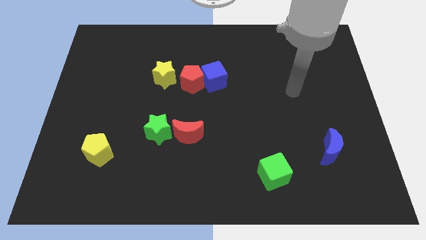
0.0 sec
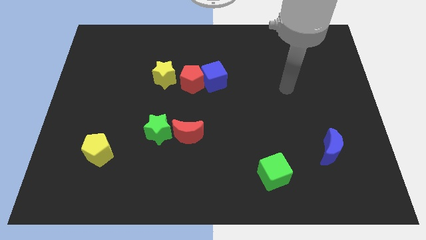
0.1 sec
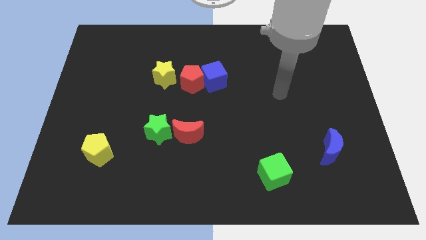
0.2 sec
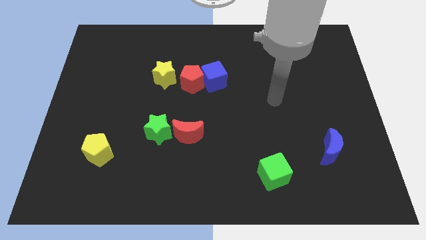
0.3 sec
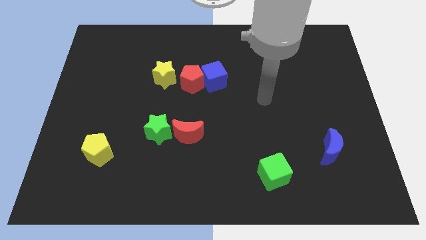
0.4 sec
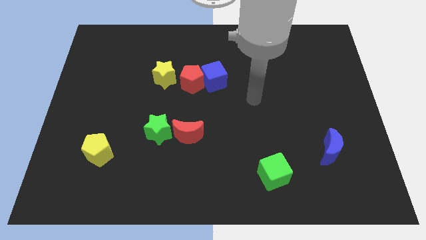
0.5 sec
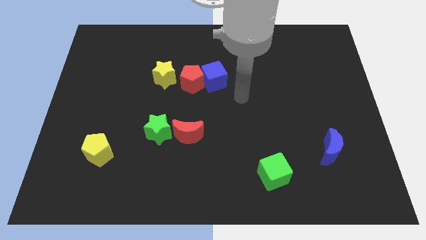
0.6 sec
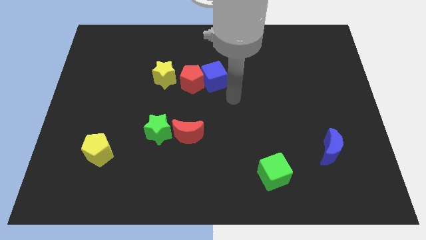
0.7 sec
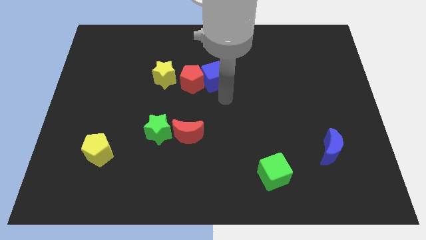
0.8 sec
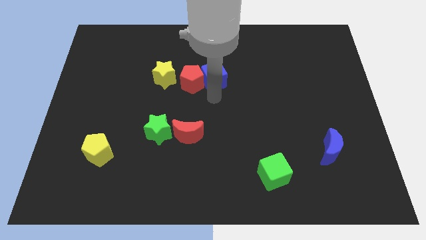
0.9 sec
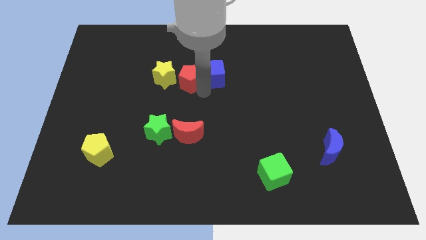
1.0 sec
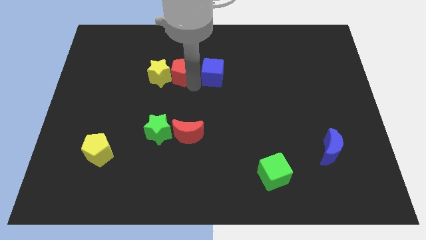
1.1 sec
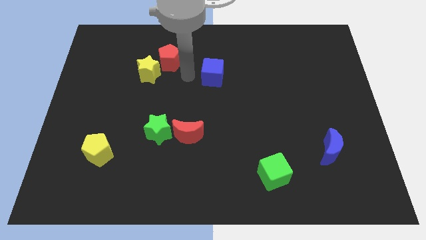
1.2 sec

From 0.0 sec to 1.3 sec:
pull the blue cube apart from the red pentagon

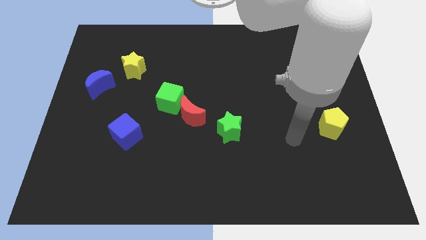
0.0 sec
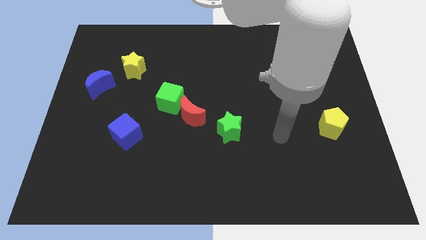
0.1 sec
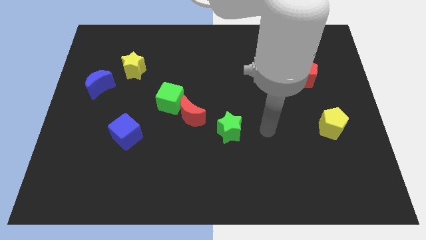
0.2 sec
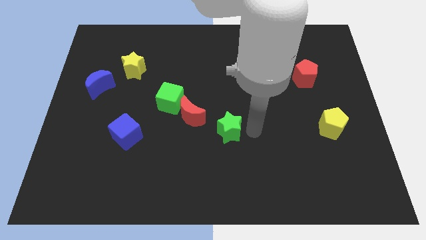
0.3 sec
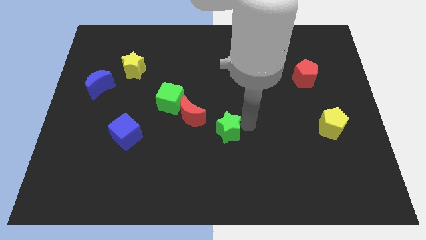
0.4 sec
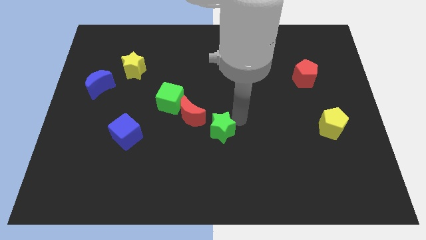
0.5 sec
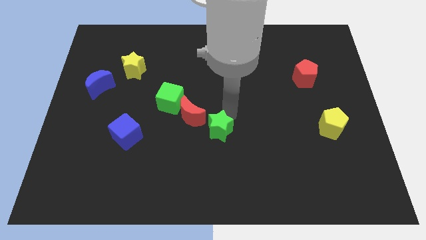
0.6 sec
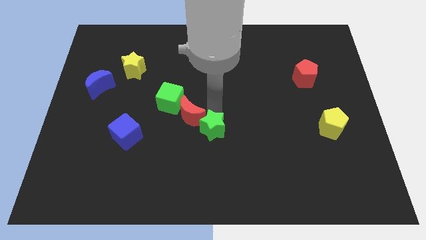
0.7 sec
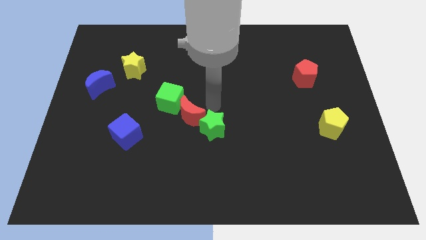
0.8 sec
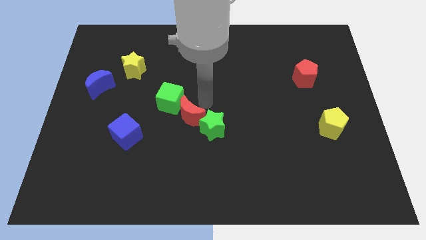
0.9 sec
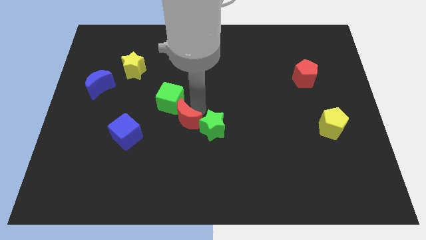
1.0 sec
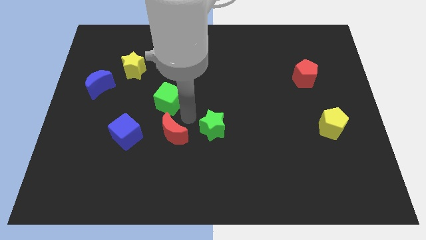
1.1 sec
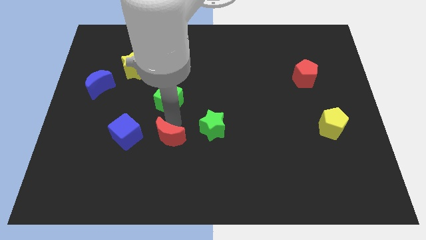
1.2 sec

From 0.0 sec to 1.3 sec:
move the green cube away from the red moon

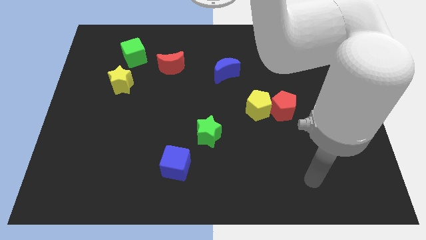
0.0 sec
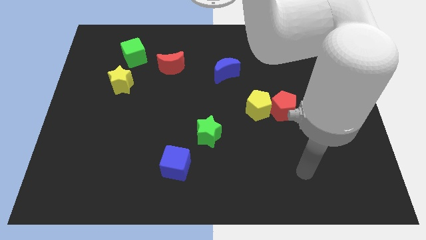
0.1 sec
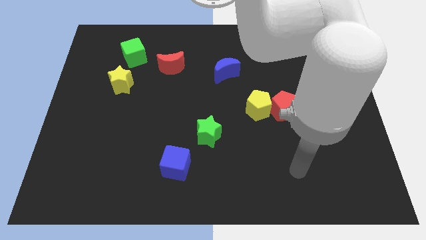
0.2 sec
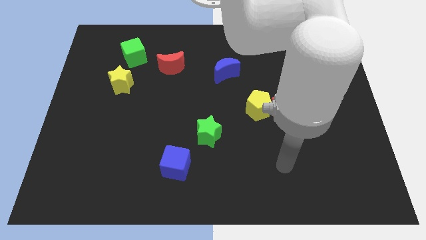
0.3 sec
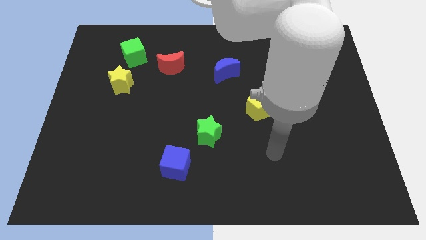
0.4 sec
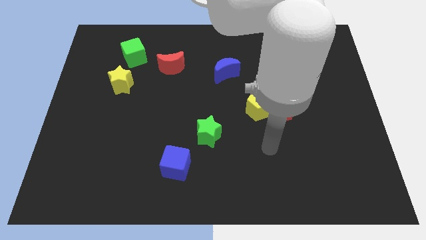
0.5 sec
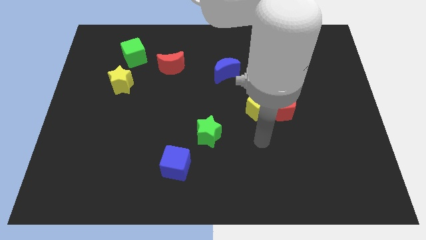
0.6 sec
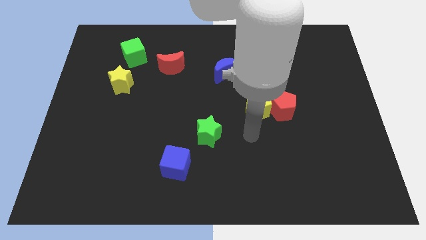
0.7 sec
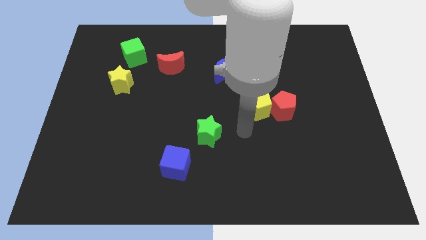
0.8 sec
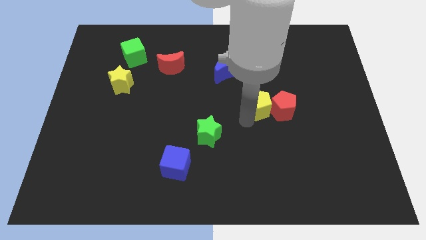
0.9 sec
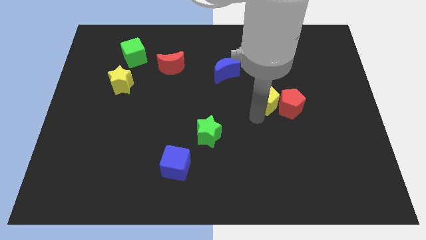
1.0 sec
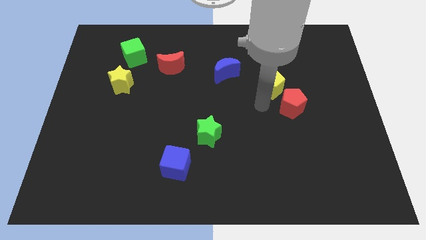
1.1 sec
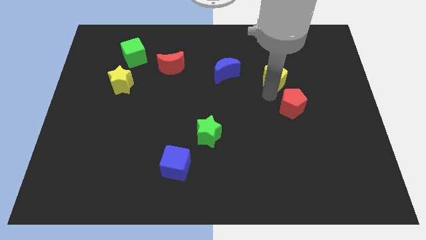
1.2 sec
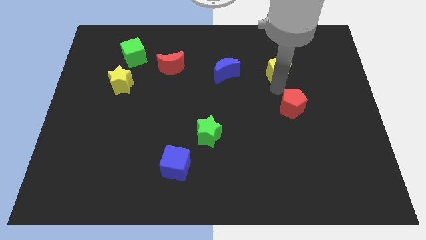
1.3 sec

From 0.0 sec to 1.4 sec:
pull the red pentagon apart from the yellow pentagon

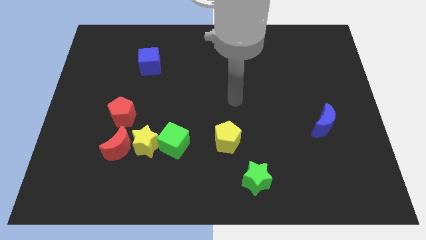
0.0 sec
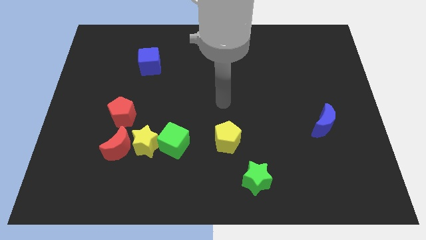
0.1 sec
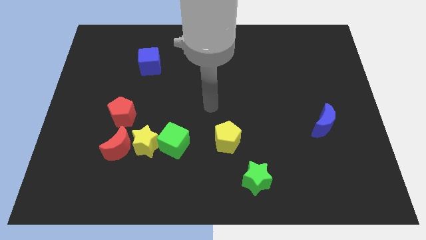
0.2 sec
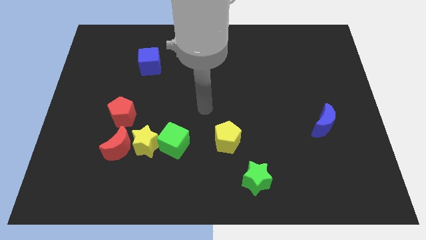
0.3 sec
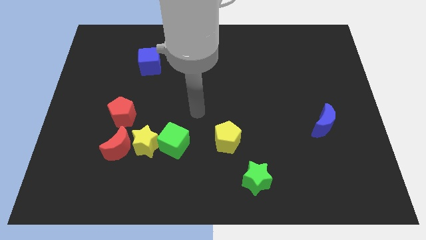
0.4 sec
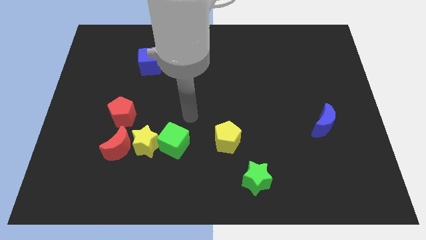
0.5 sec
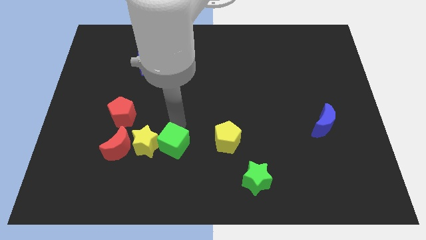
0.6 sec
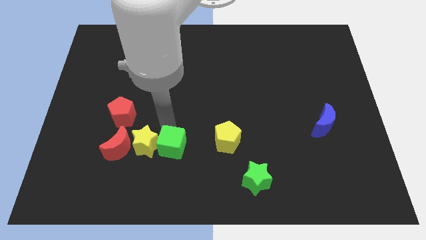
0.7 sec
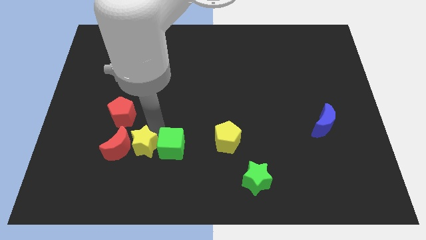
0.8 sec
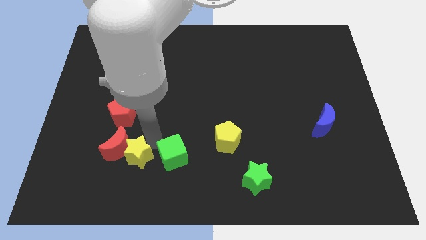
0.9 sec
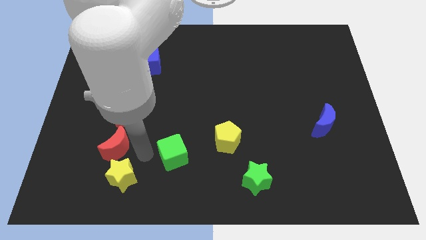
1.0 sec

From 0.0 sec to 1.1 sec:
separate the green cube from the yellow star

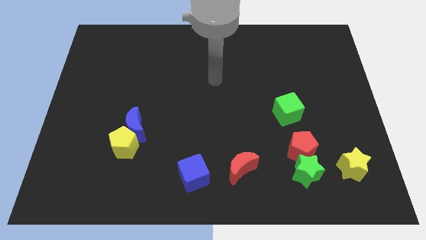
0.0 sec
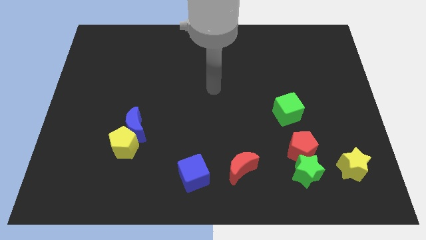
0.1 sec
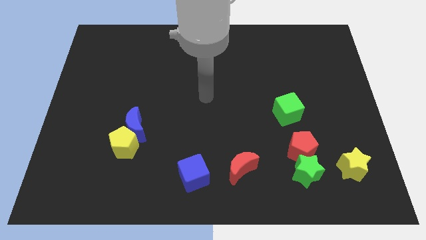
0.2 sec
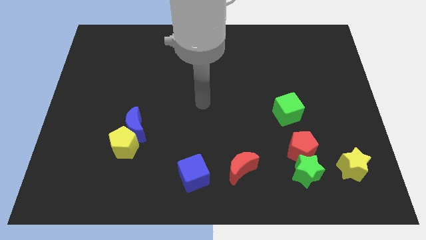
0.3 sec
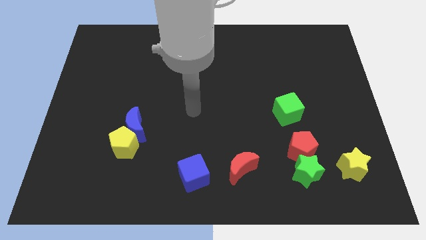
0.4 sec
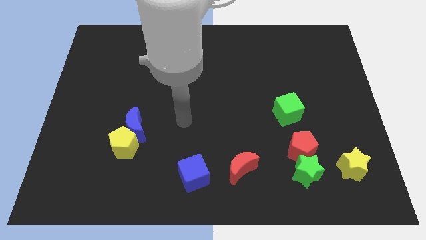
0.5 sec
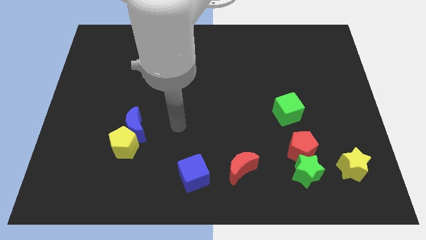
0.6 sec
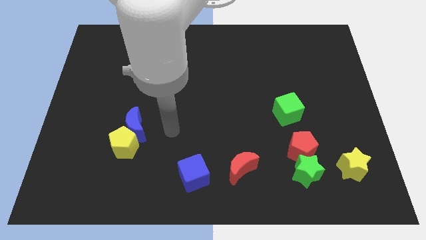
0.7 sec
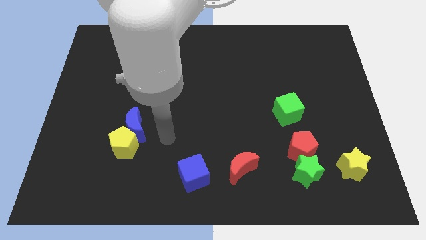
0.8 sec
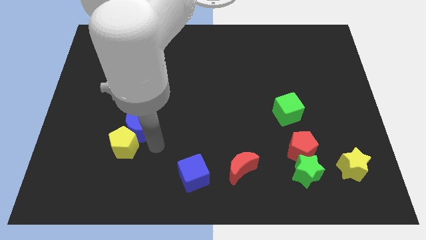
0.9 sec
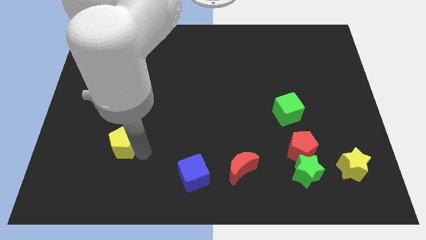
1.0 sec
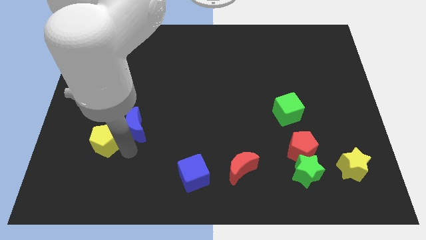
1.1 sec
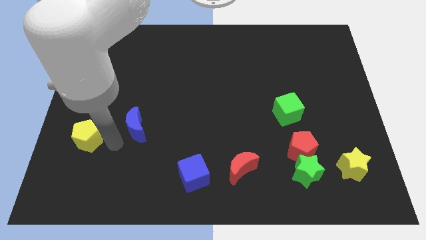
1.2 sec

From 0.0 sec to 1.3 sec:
pull the blue moon apart from the yellow pentagon

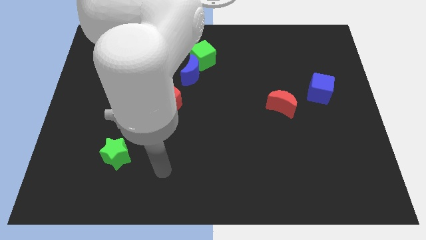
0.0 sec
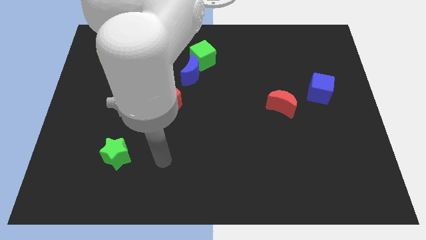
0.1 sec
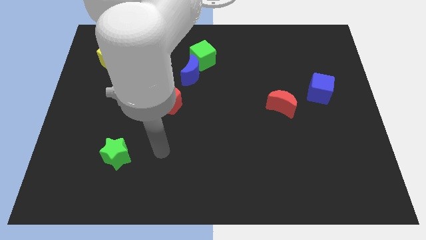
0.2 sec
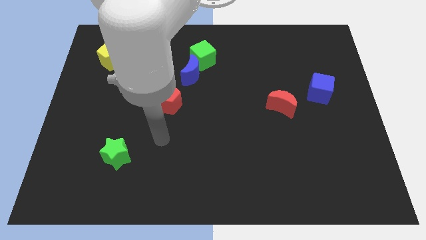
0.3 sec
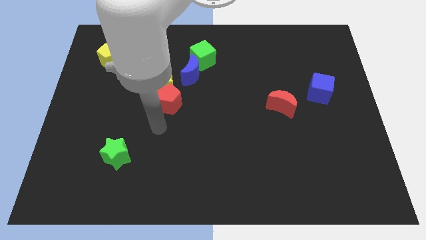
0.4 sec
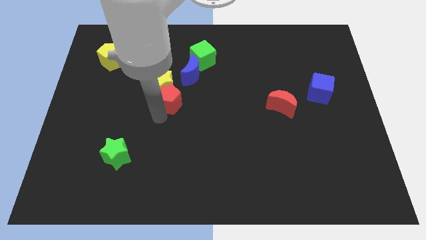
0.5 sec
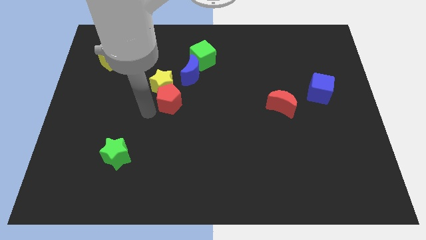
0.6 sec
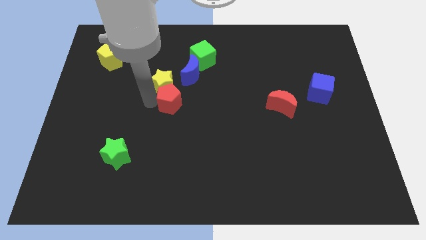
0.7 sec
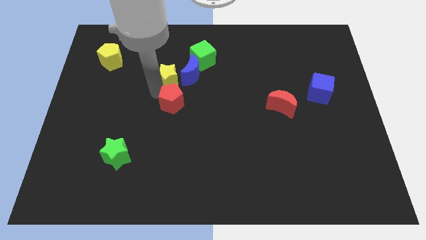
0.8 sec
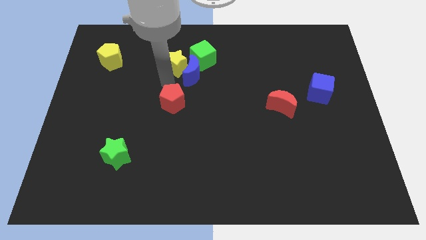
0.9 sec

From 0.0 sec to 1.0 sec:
move the red pentagon away from the yellow star

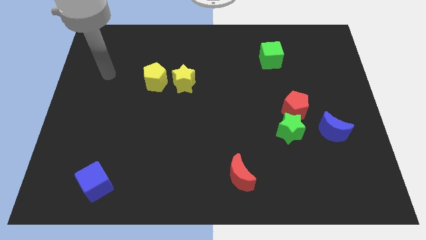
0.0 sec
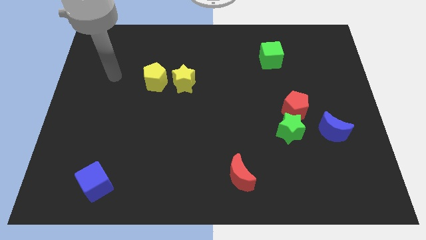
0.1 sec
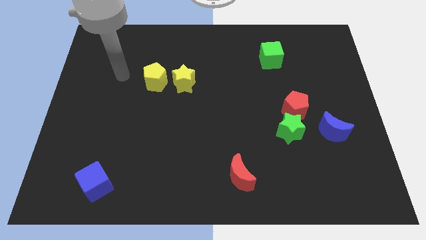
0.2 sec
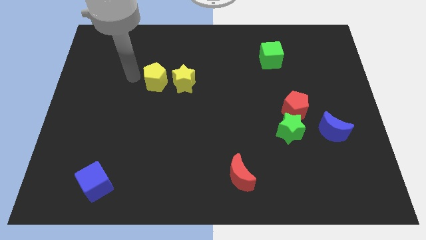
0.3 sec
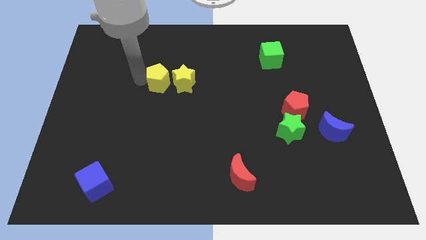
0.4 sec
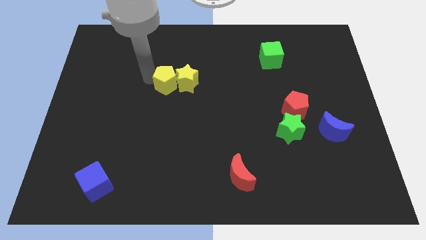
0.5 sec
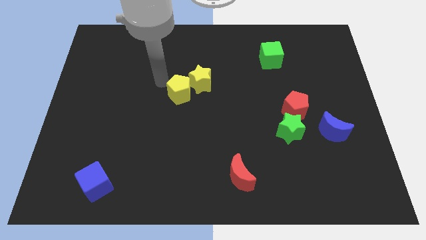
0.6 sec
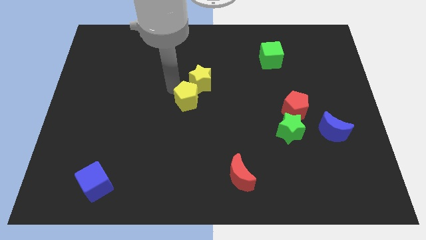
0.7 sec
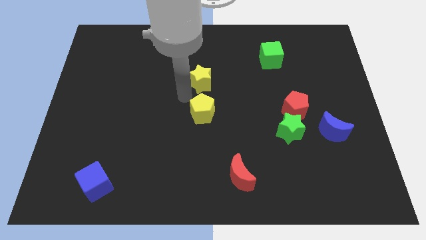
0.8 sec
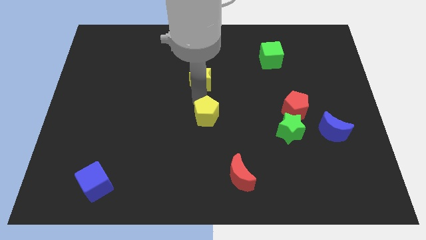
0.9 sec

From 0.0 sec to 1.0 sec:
separate the yellow star from the yellow pentagon

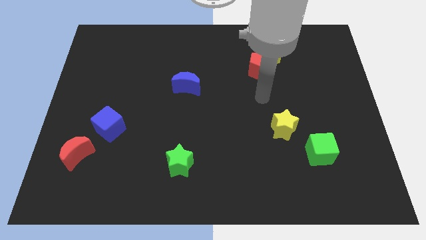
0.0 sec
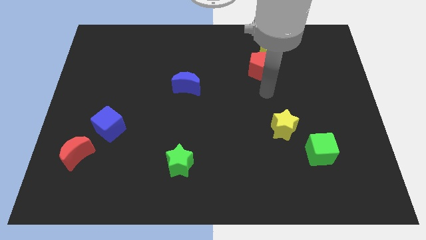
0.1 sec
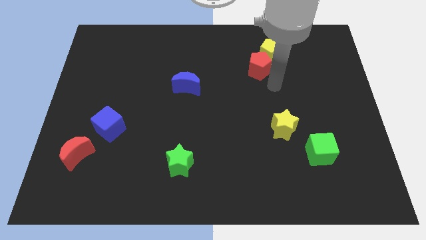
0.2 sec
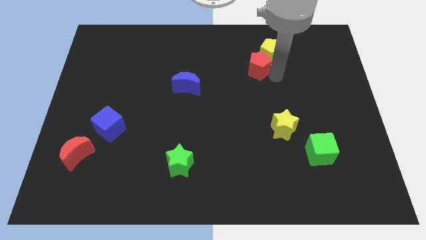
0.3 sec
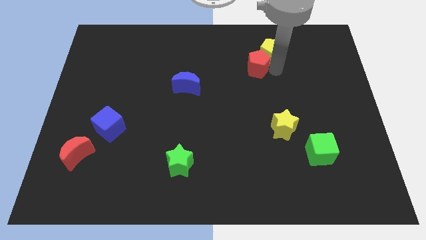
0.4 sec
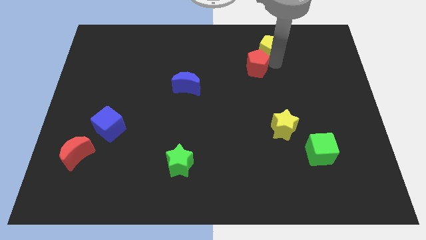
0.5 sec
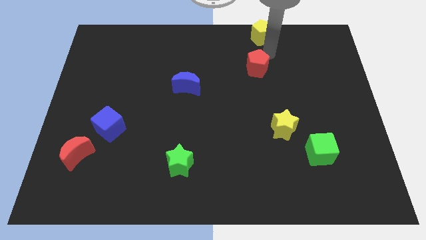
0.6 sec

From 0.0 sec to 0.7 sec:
move the red pentagon away from the yellow pentagon

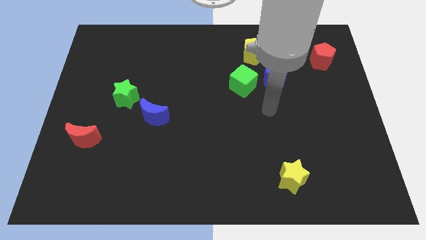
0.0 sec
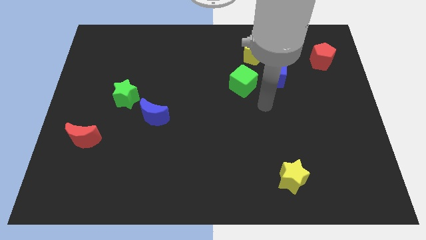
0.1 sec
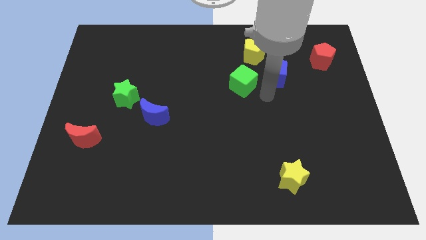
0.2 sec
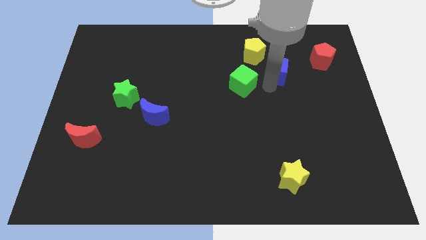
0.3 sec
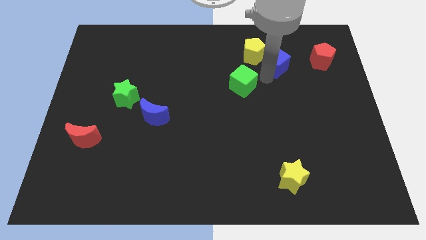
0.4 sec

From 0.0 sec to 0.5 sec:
separate the green cube from the blue cube
